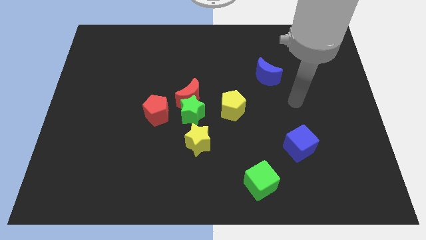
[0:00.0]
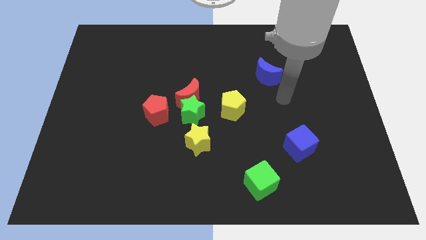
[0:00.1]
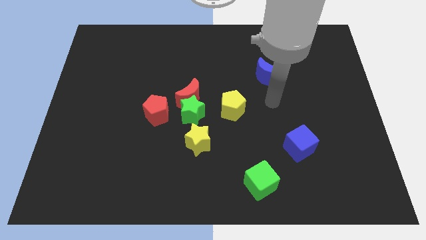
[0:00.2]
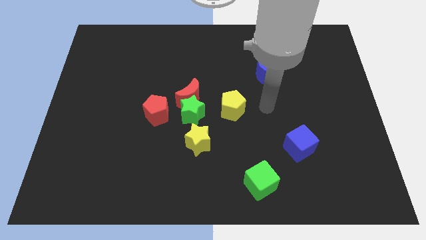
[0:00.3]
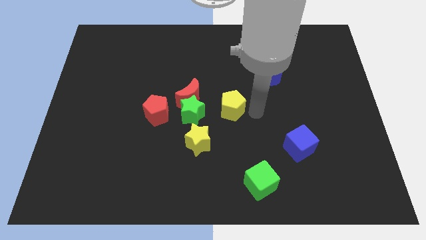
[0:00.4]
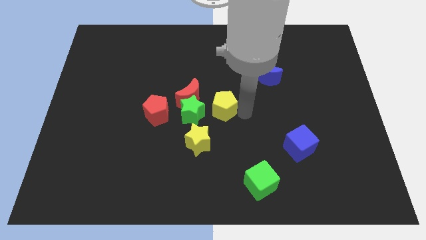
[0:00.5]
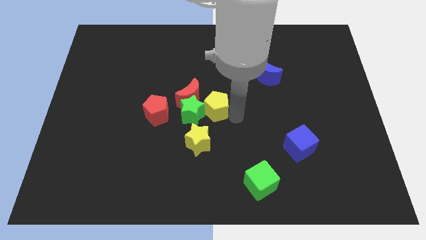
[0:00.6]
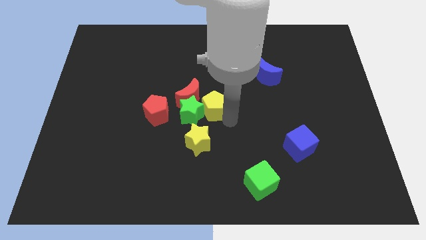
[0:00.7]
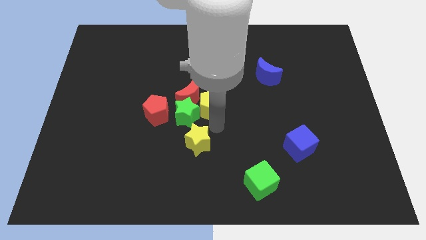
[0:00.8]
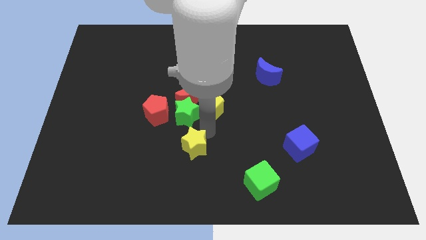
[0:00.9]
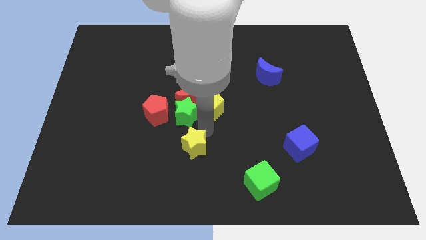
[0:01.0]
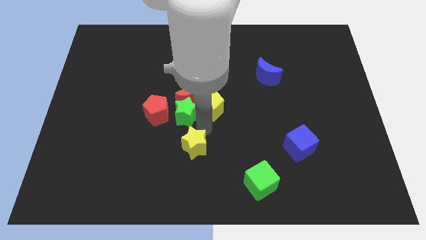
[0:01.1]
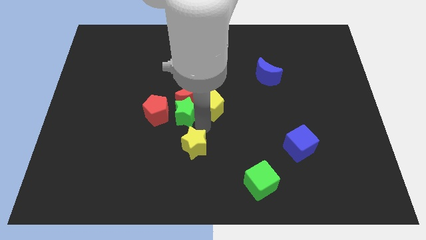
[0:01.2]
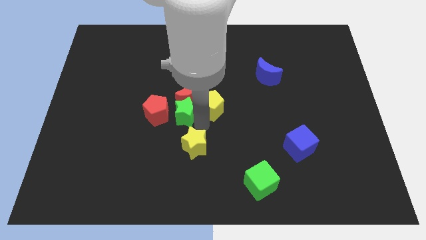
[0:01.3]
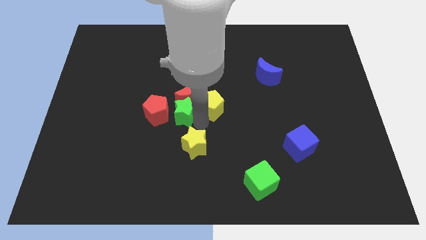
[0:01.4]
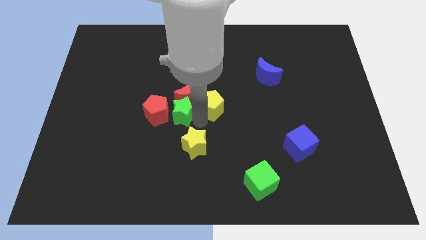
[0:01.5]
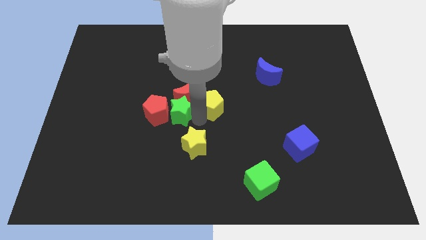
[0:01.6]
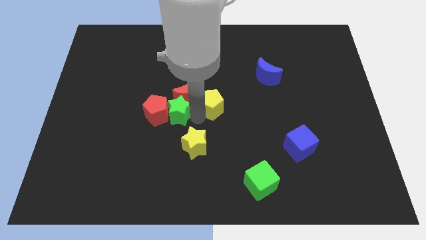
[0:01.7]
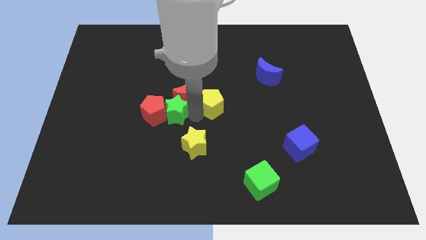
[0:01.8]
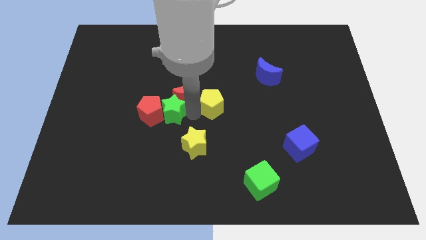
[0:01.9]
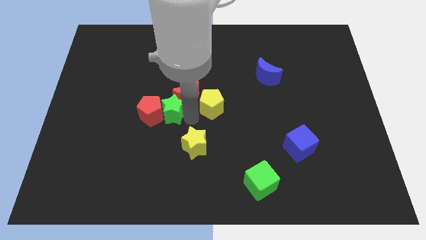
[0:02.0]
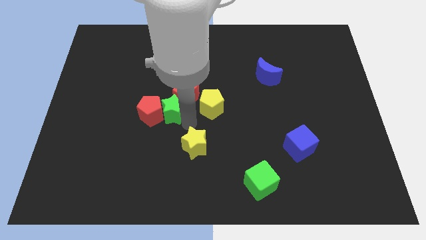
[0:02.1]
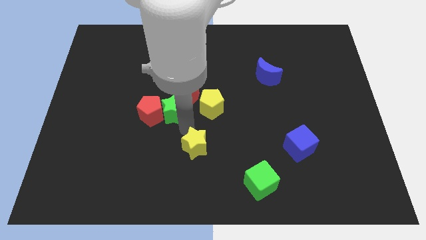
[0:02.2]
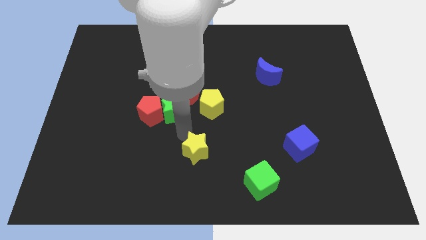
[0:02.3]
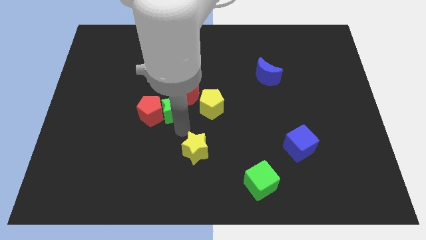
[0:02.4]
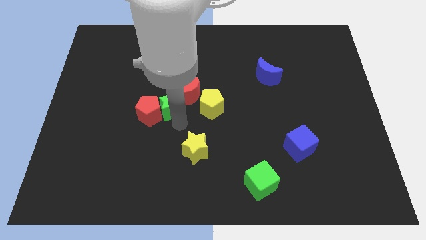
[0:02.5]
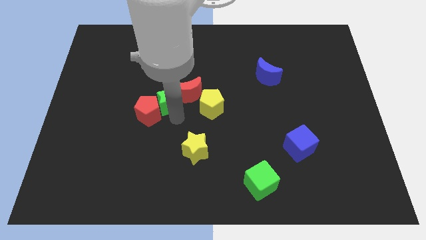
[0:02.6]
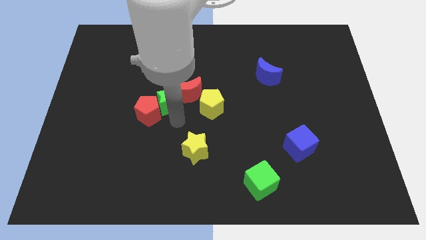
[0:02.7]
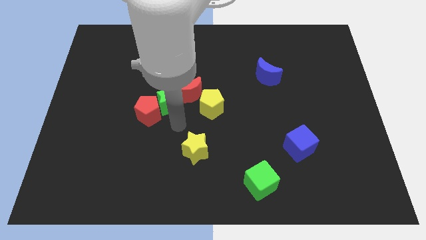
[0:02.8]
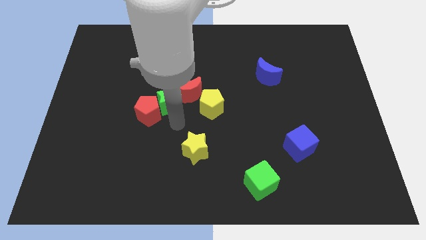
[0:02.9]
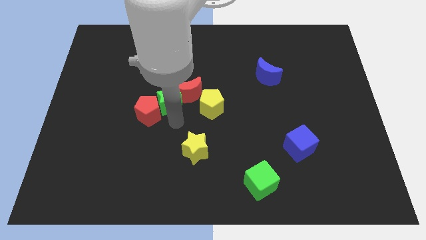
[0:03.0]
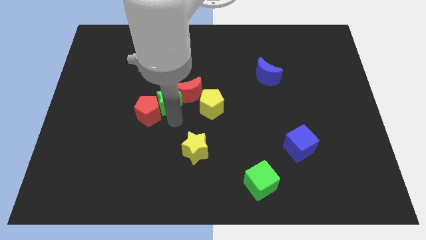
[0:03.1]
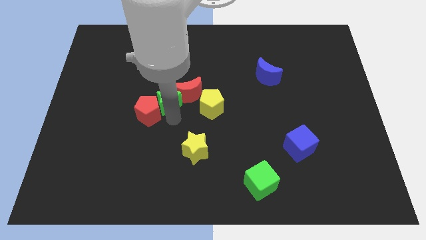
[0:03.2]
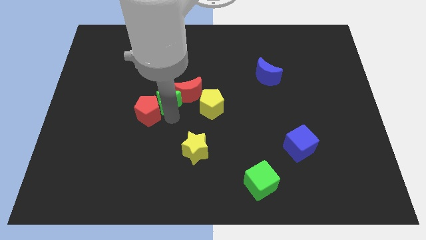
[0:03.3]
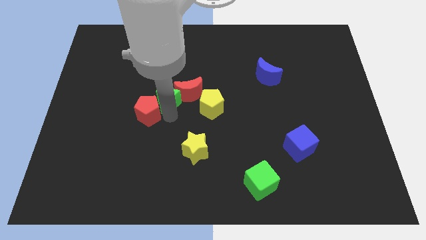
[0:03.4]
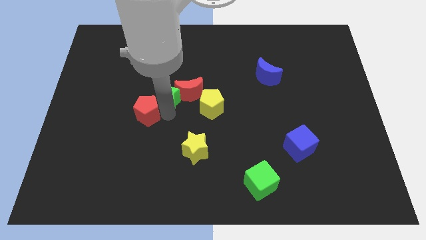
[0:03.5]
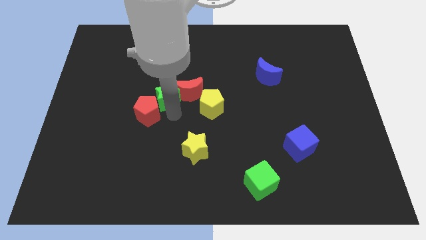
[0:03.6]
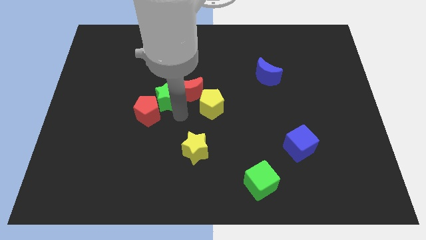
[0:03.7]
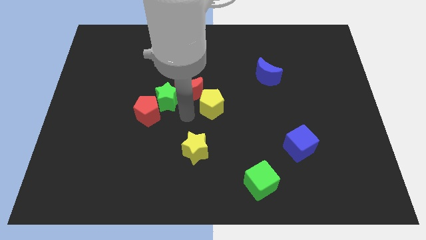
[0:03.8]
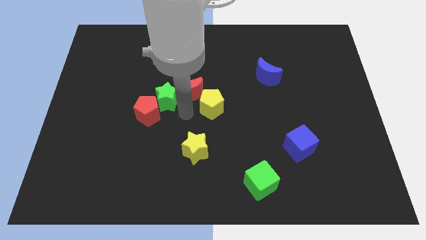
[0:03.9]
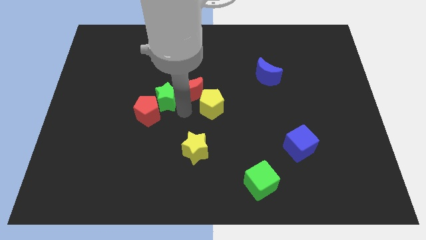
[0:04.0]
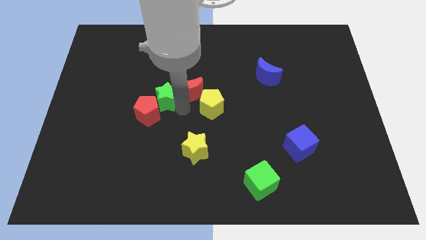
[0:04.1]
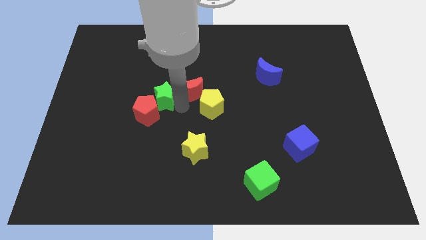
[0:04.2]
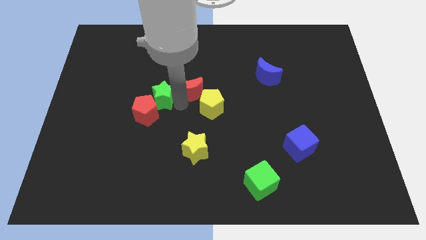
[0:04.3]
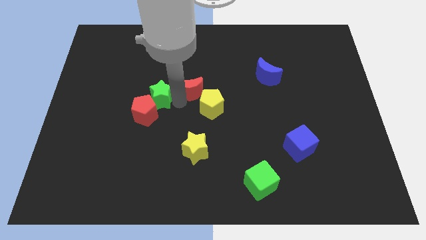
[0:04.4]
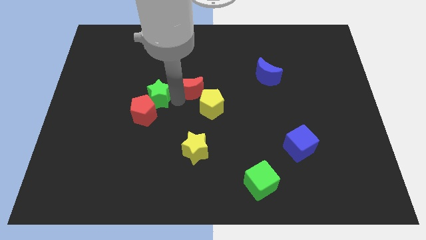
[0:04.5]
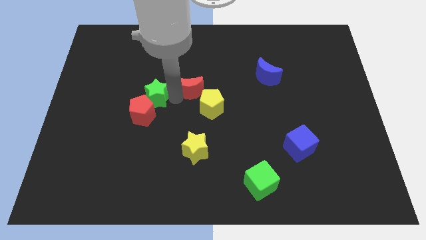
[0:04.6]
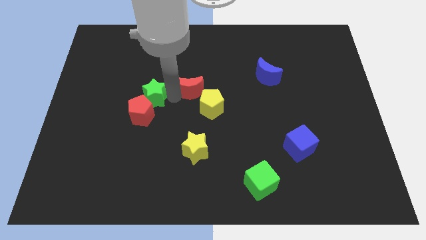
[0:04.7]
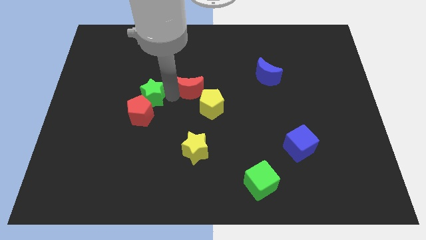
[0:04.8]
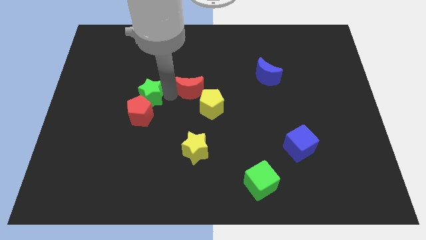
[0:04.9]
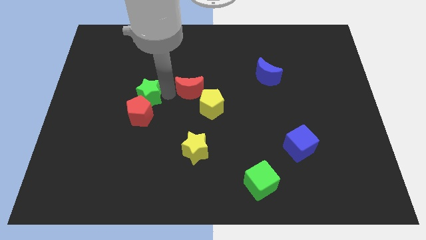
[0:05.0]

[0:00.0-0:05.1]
separate the green star from the group of blocks

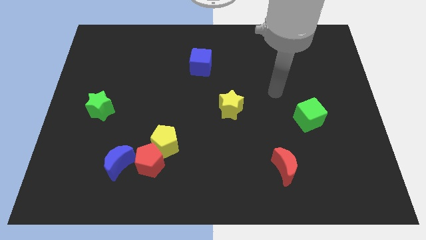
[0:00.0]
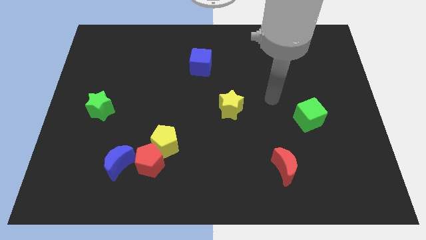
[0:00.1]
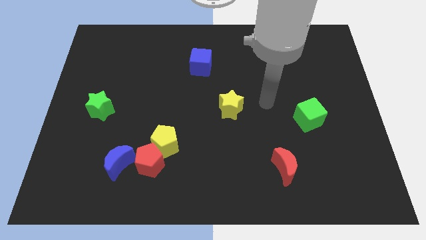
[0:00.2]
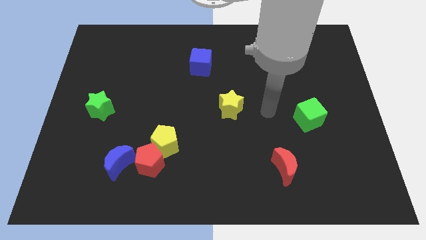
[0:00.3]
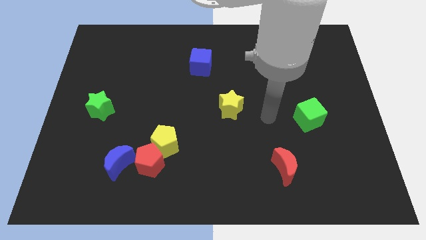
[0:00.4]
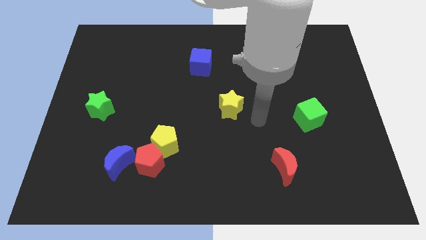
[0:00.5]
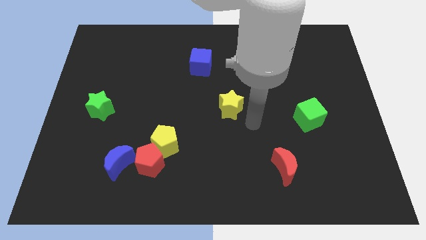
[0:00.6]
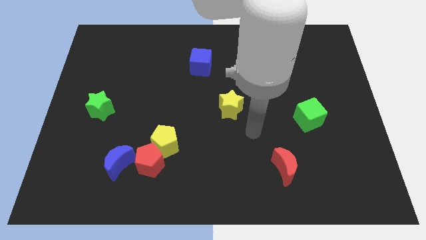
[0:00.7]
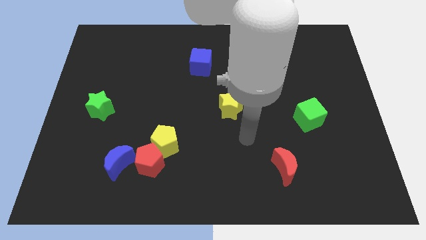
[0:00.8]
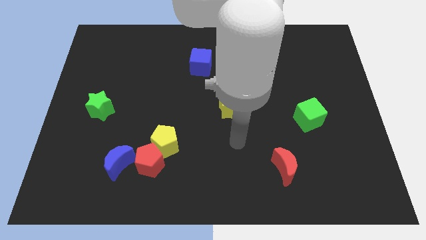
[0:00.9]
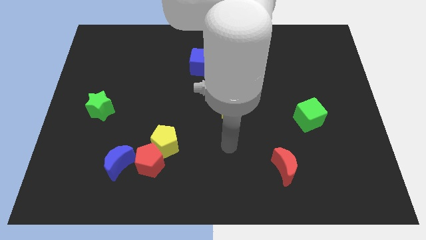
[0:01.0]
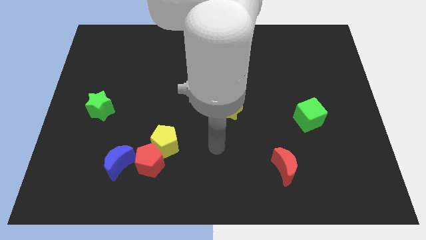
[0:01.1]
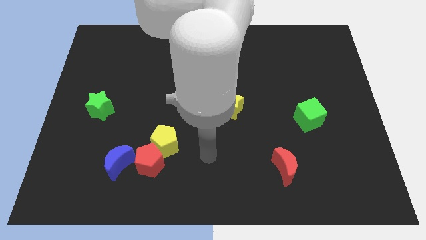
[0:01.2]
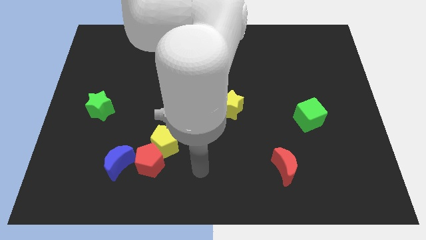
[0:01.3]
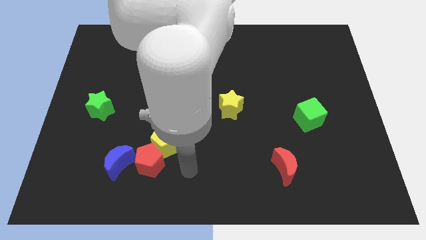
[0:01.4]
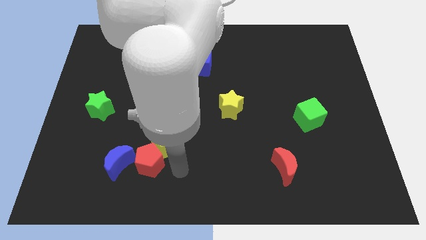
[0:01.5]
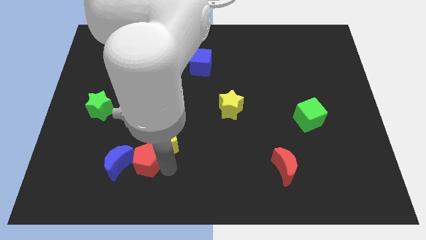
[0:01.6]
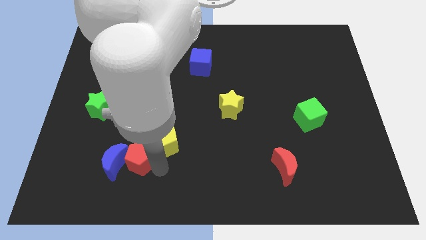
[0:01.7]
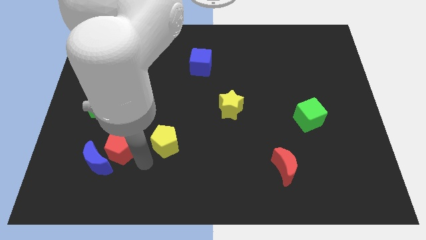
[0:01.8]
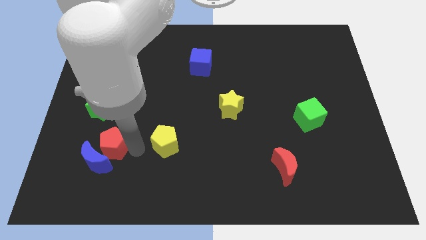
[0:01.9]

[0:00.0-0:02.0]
pull the yellow pentagon apart from the red pentagon

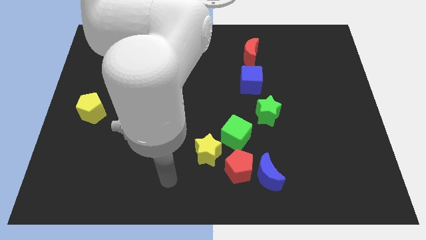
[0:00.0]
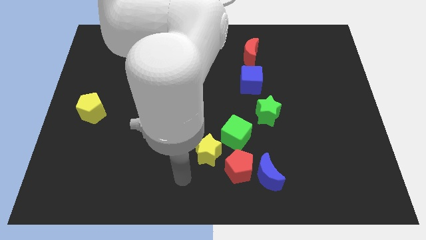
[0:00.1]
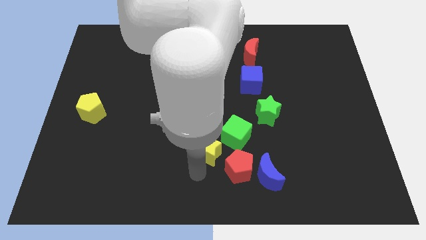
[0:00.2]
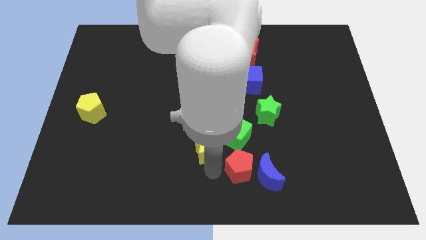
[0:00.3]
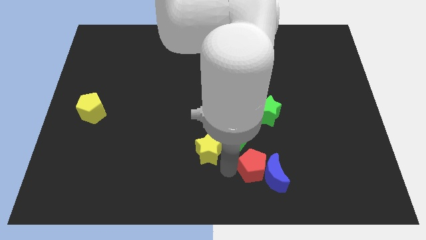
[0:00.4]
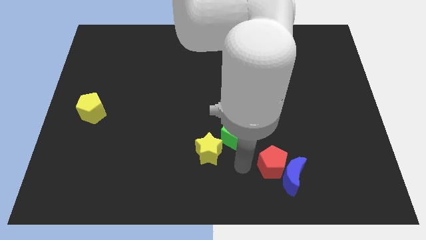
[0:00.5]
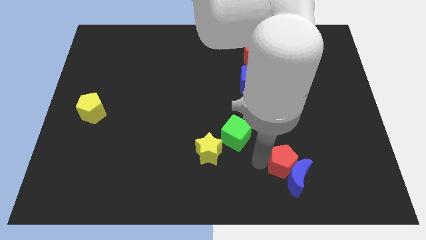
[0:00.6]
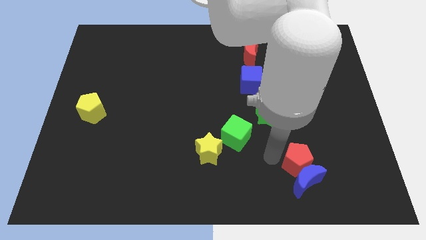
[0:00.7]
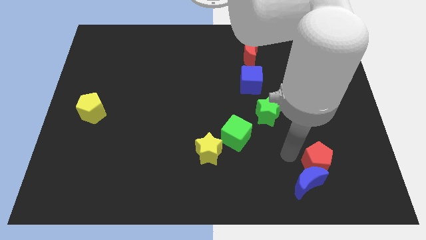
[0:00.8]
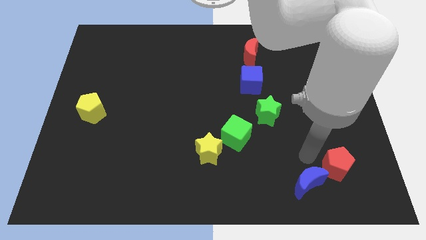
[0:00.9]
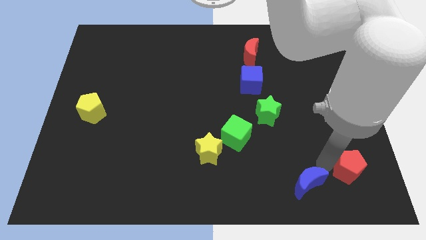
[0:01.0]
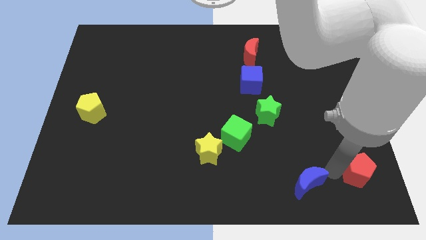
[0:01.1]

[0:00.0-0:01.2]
separate the blue moon from the red pentagon

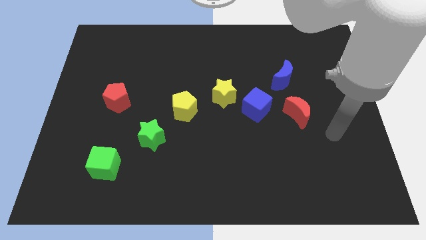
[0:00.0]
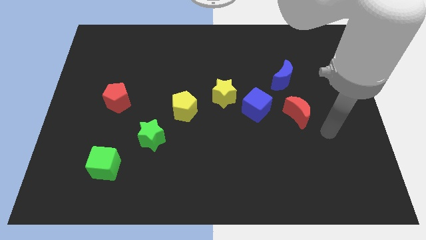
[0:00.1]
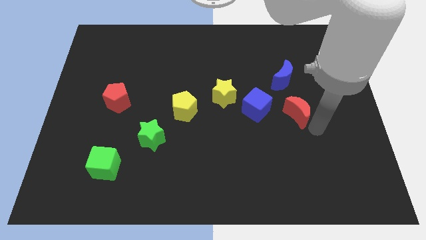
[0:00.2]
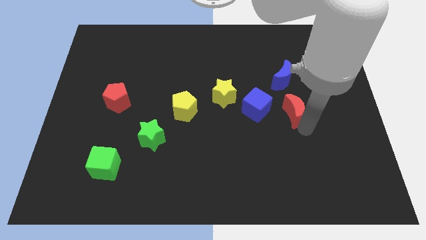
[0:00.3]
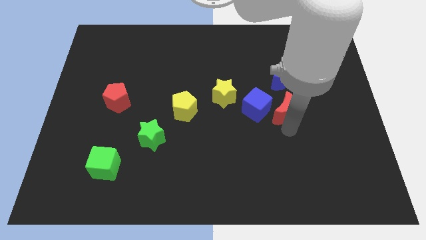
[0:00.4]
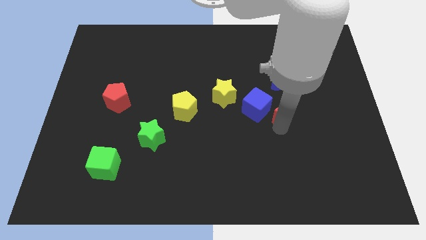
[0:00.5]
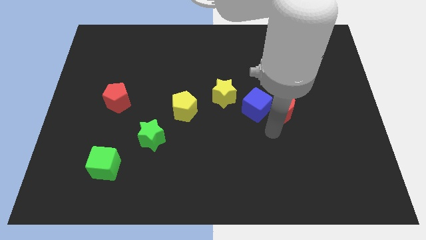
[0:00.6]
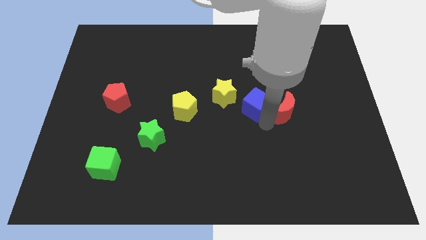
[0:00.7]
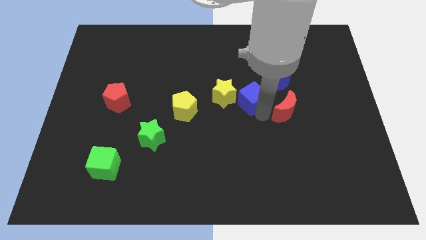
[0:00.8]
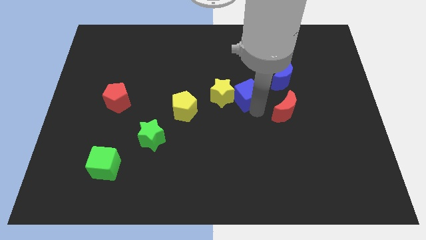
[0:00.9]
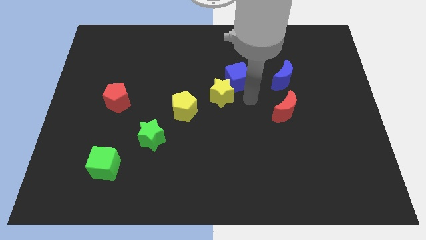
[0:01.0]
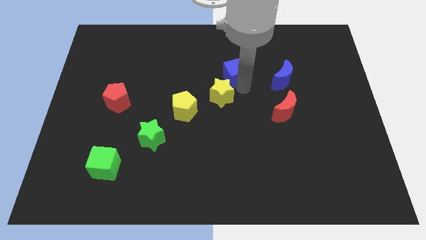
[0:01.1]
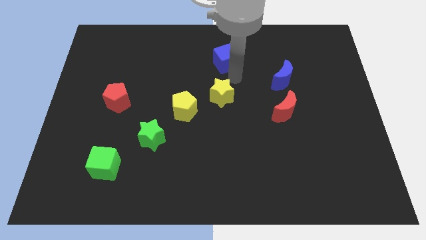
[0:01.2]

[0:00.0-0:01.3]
pull the yellow star apart from the blue cube

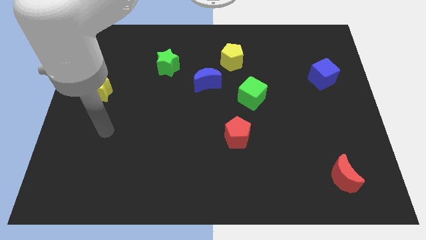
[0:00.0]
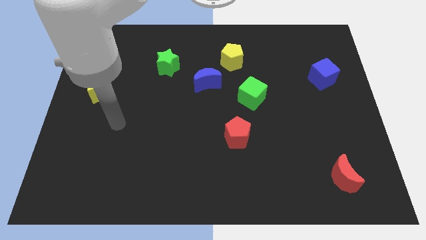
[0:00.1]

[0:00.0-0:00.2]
pull the blue moon apart from the yellow pentagon
